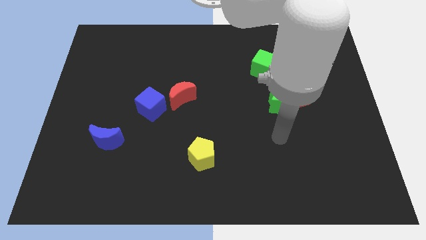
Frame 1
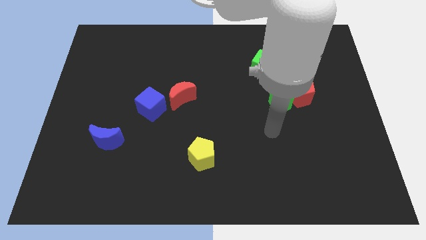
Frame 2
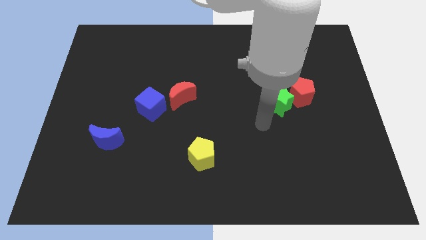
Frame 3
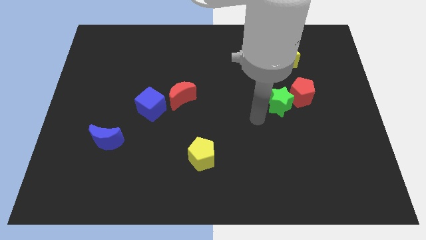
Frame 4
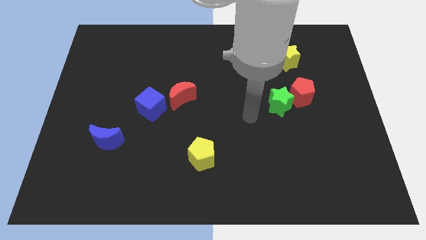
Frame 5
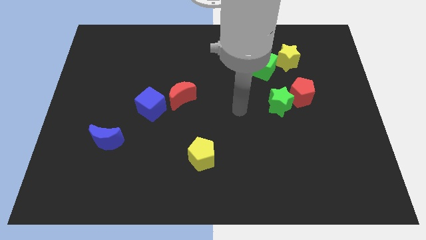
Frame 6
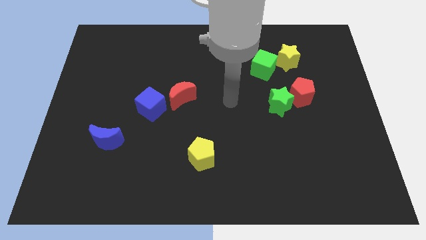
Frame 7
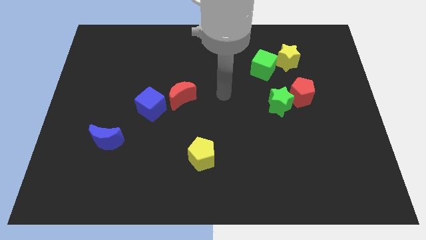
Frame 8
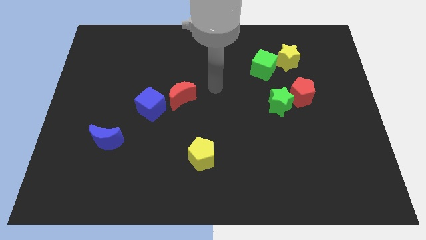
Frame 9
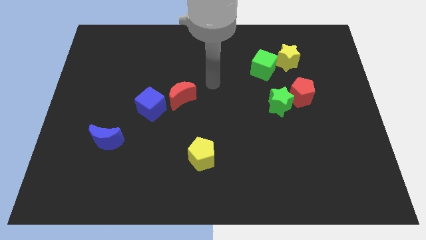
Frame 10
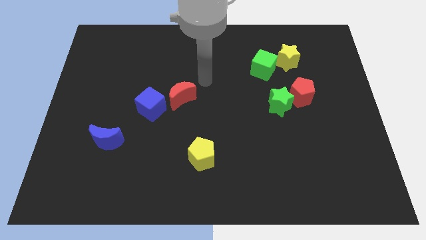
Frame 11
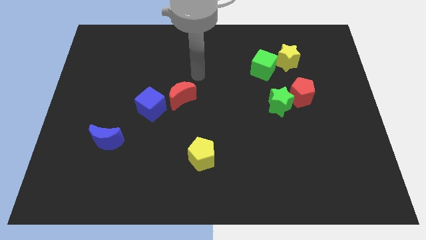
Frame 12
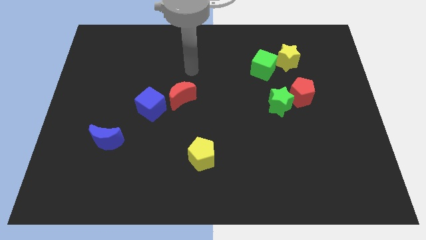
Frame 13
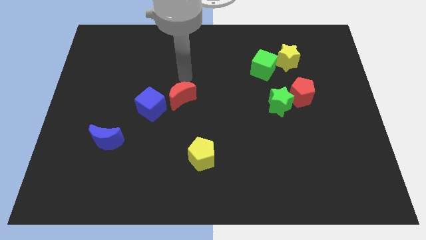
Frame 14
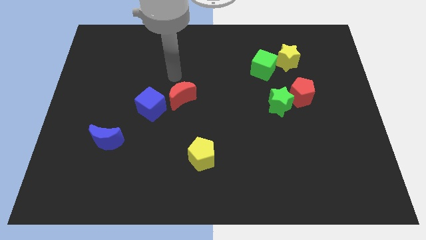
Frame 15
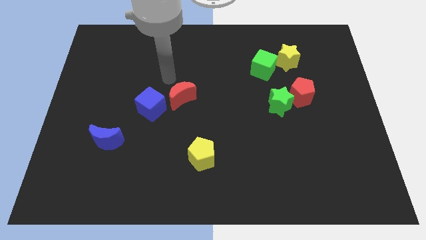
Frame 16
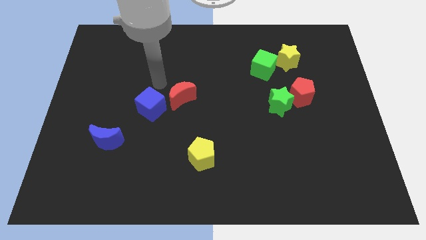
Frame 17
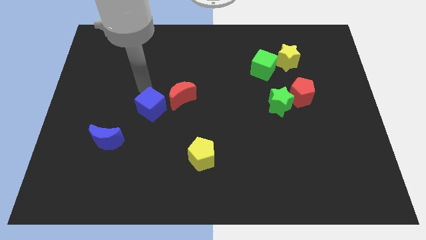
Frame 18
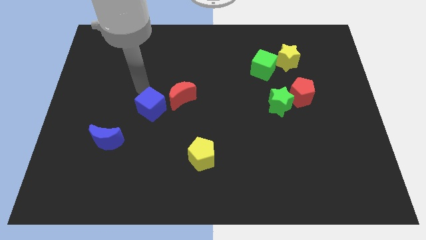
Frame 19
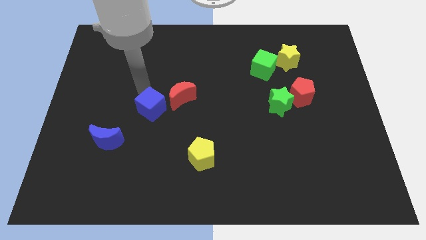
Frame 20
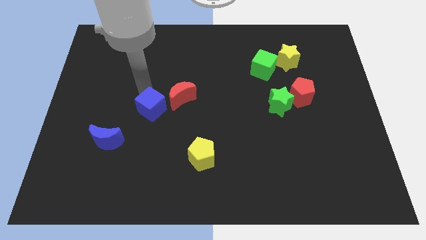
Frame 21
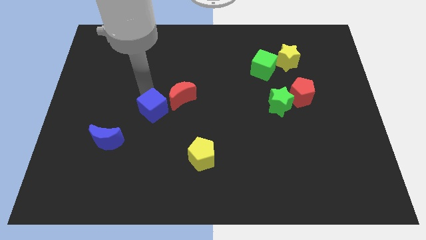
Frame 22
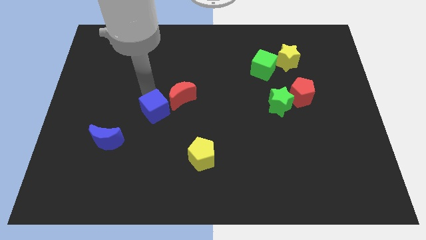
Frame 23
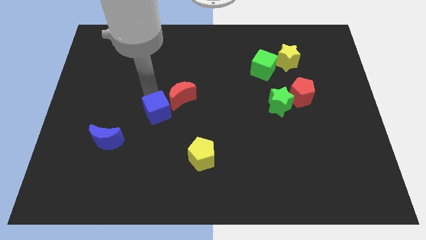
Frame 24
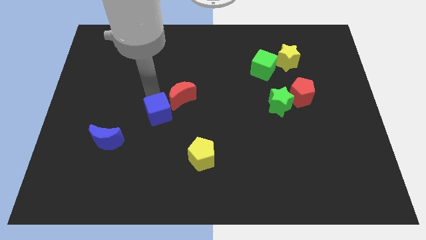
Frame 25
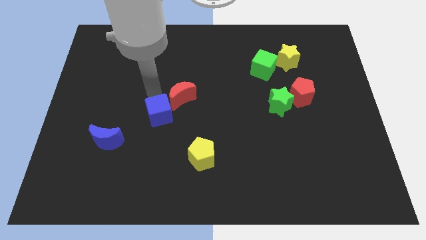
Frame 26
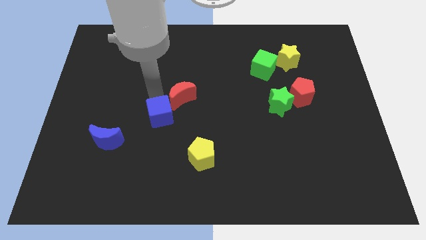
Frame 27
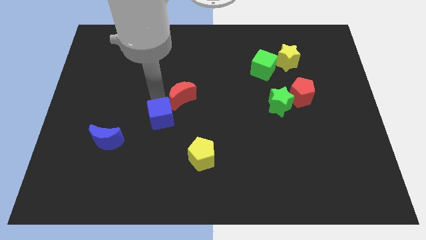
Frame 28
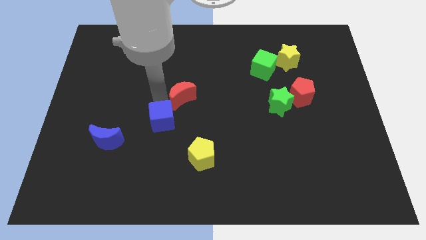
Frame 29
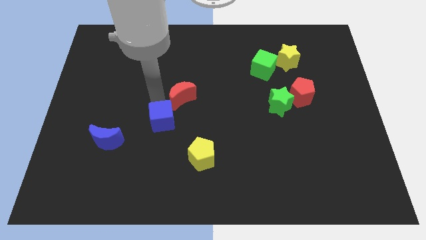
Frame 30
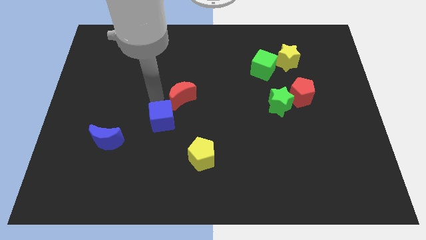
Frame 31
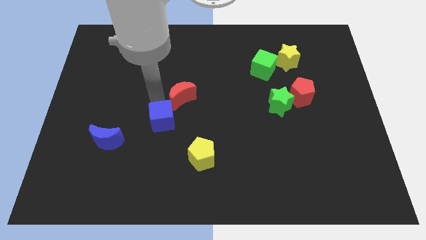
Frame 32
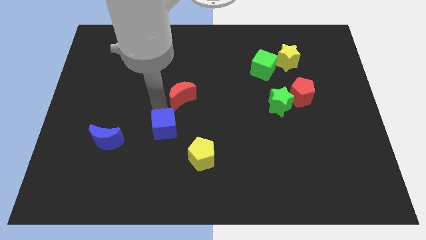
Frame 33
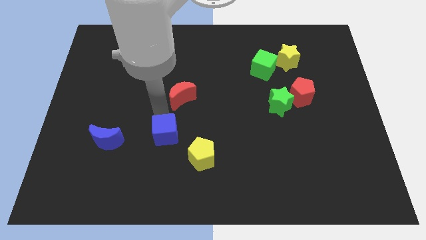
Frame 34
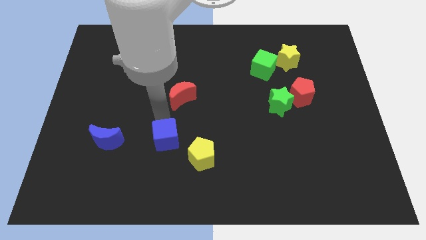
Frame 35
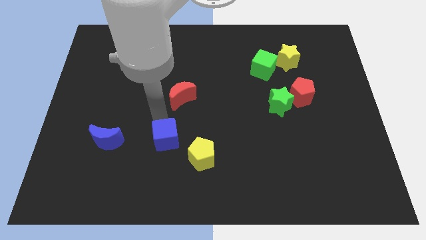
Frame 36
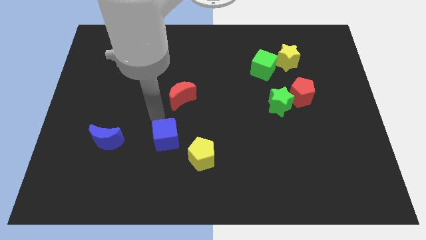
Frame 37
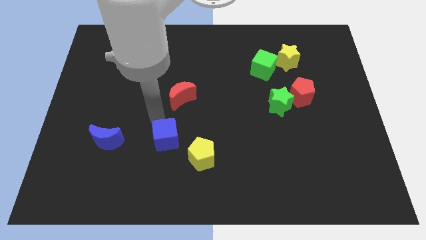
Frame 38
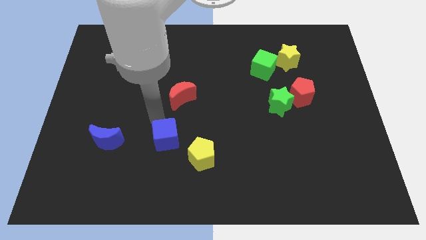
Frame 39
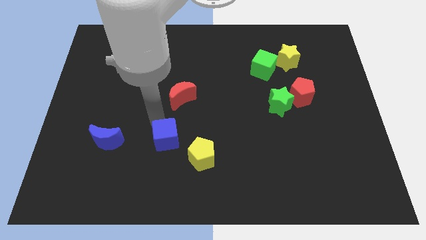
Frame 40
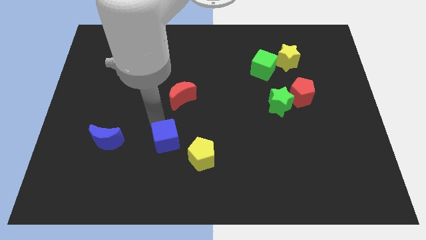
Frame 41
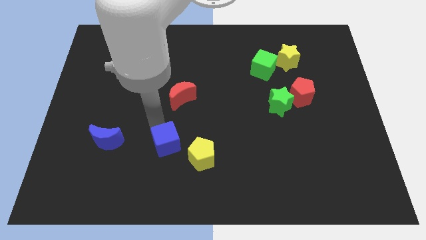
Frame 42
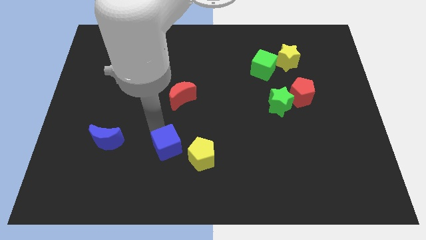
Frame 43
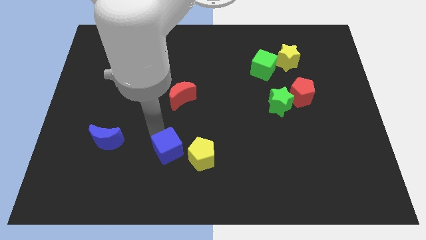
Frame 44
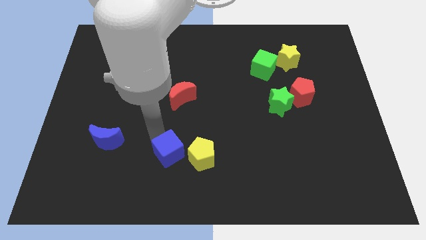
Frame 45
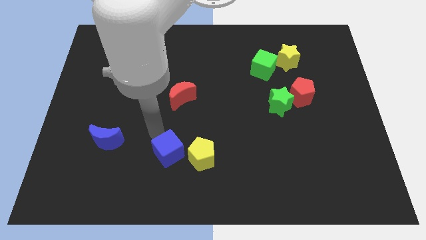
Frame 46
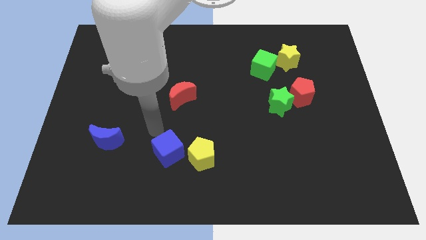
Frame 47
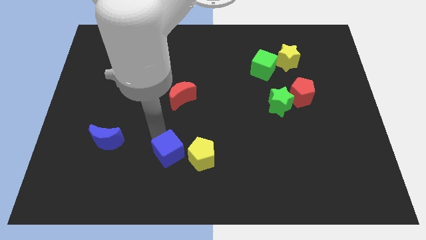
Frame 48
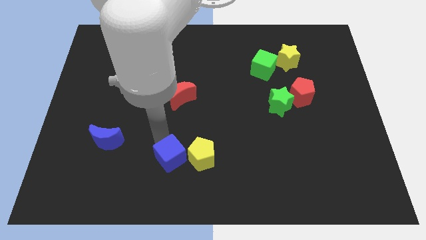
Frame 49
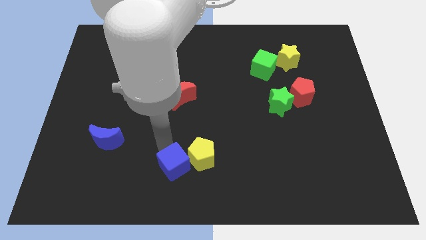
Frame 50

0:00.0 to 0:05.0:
slide the blue cube to the bottom side

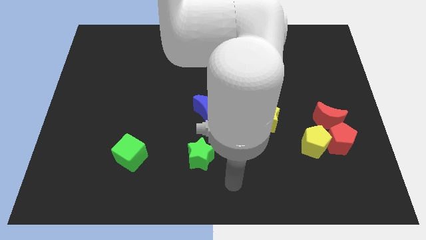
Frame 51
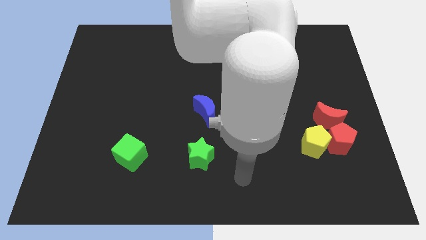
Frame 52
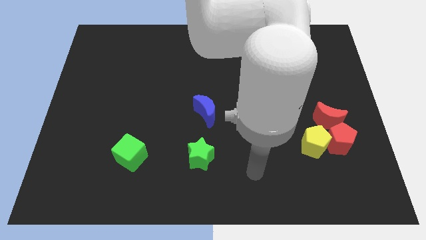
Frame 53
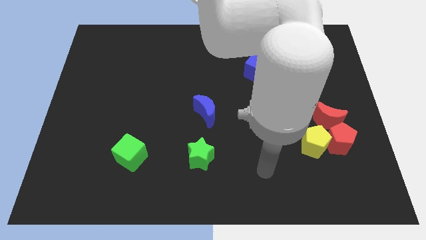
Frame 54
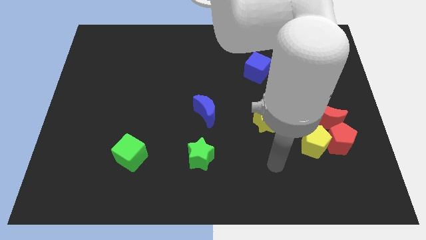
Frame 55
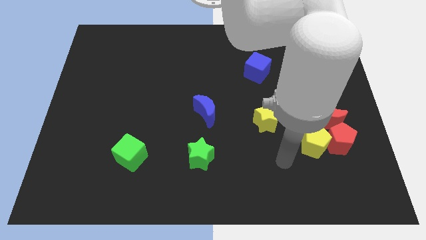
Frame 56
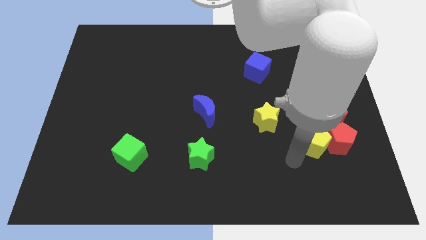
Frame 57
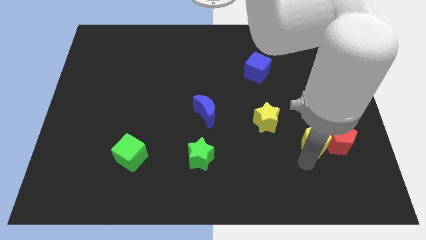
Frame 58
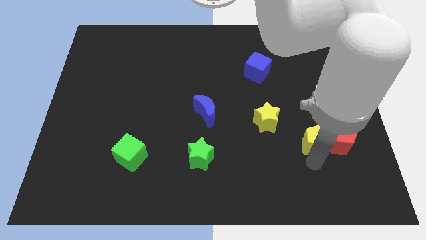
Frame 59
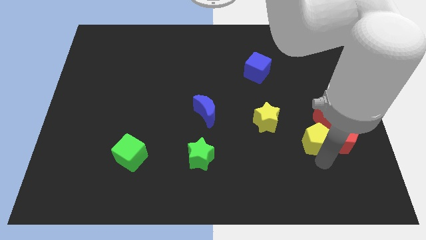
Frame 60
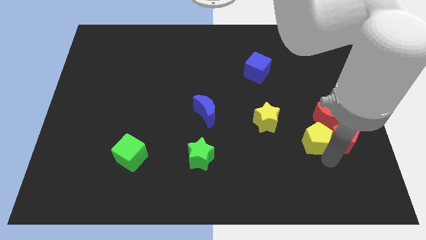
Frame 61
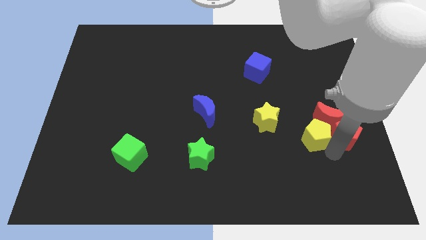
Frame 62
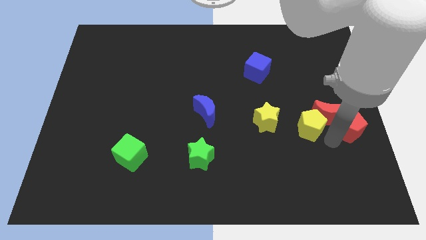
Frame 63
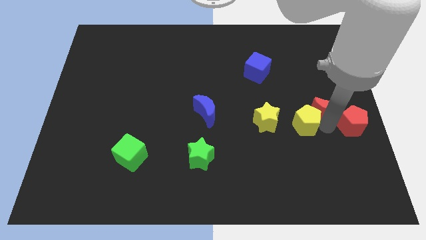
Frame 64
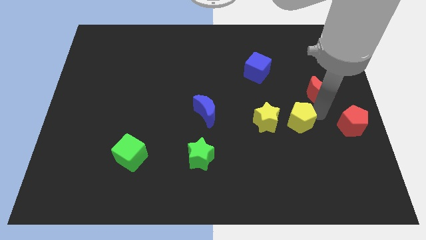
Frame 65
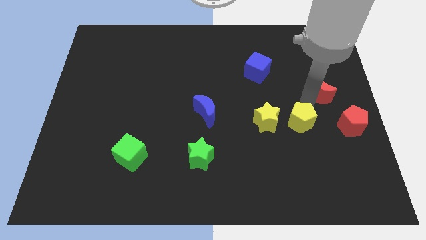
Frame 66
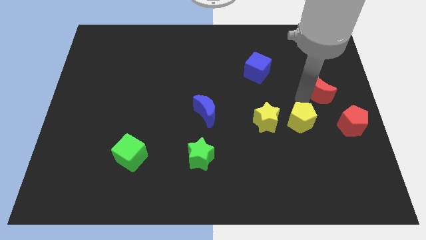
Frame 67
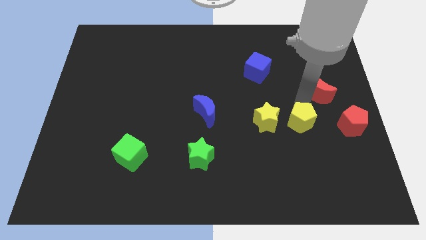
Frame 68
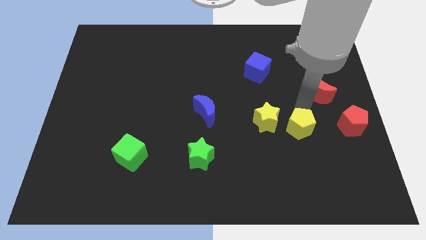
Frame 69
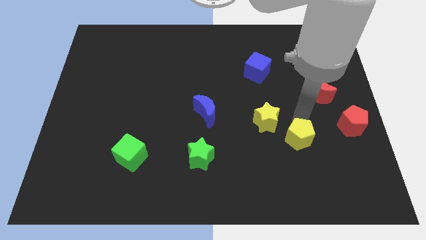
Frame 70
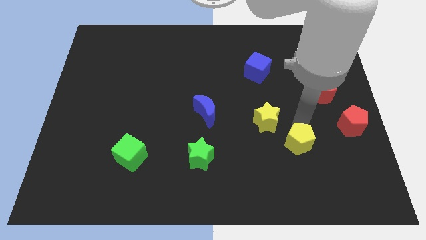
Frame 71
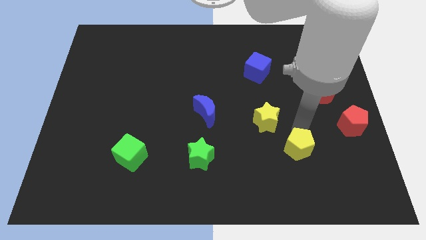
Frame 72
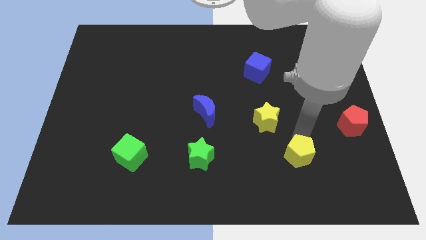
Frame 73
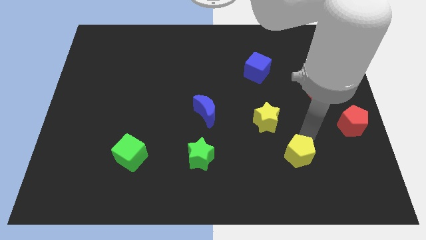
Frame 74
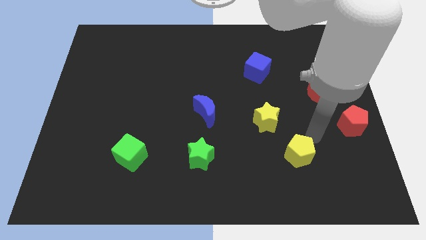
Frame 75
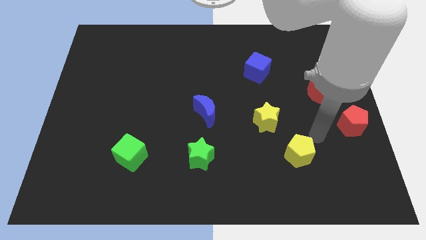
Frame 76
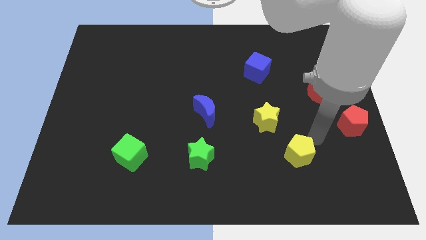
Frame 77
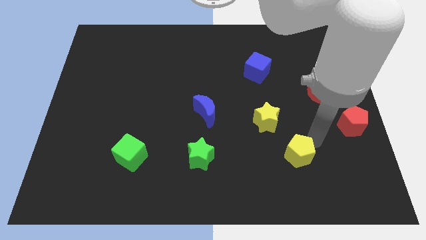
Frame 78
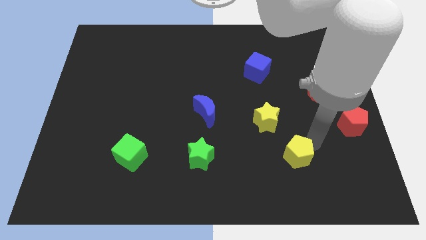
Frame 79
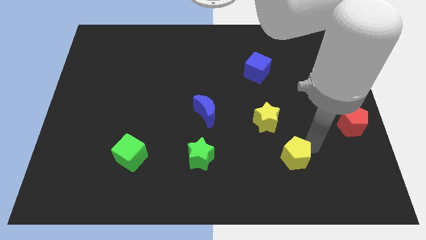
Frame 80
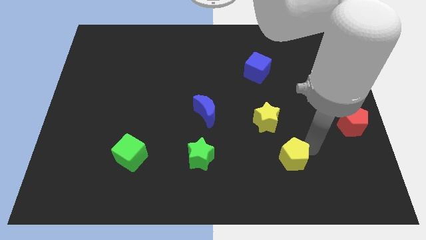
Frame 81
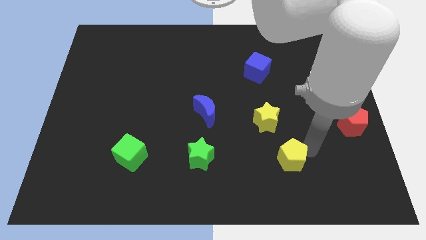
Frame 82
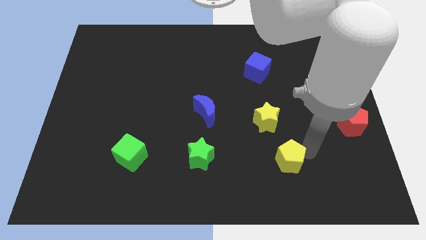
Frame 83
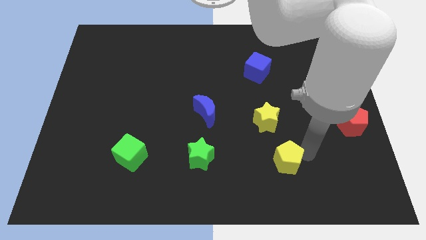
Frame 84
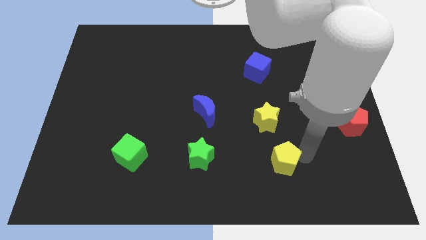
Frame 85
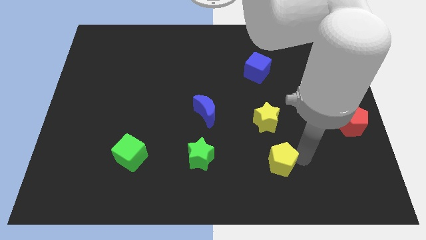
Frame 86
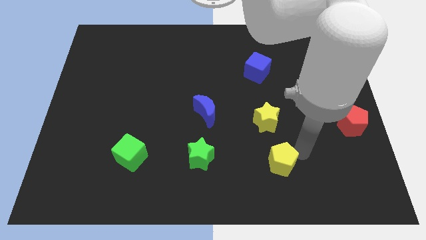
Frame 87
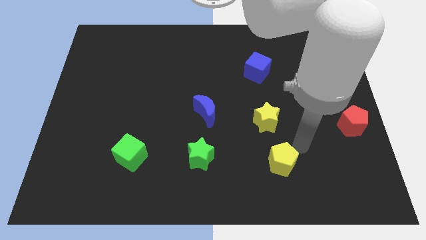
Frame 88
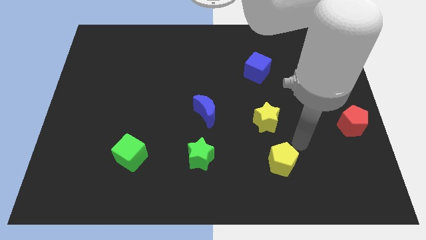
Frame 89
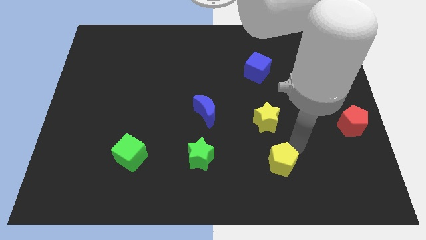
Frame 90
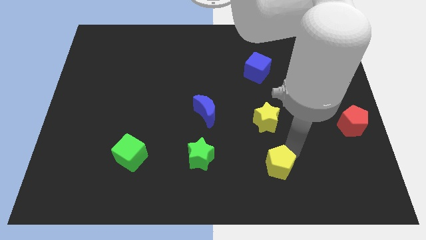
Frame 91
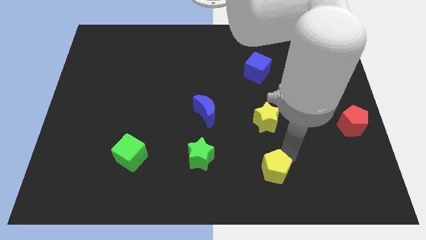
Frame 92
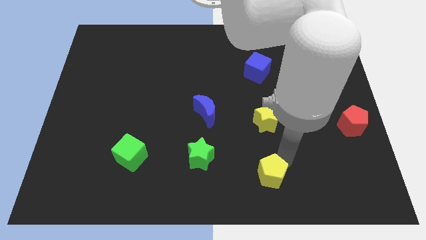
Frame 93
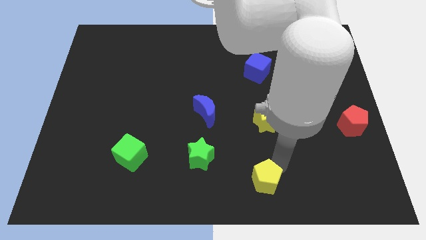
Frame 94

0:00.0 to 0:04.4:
move the yellow pentagon to the bottom
